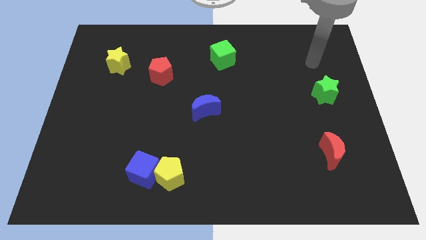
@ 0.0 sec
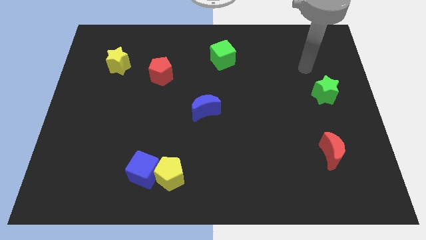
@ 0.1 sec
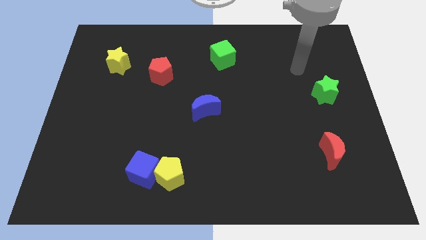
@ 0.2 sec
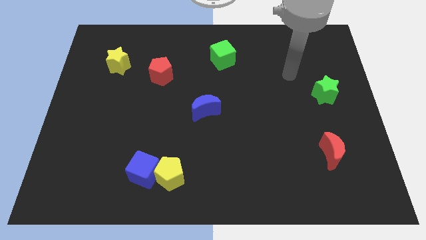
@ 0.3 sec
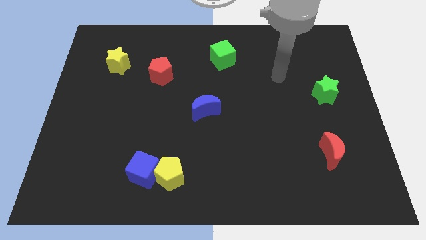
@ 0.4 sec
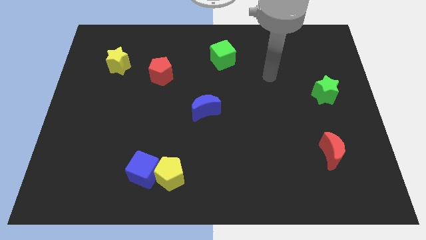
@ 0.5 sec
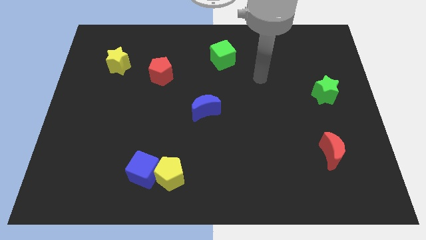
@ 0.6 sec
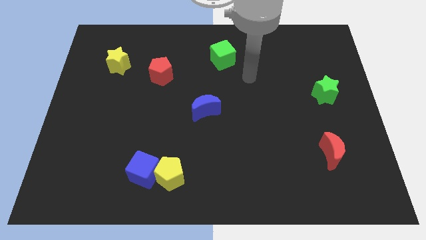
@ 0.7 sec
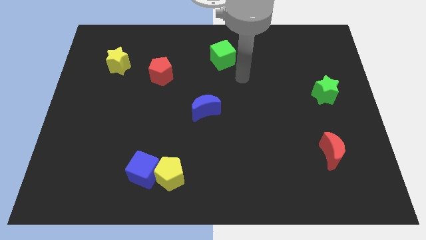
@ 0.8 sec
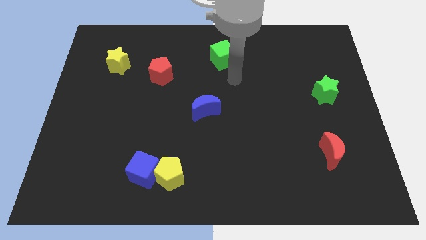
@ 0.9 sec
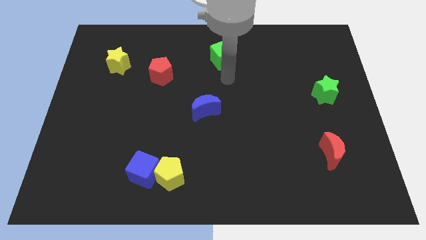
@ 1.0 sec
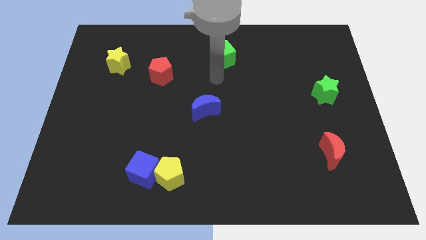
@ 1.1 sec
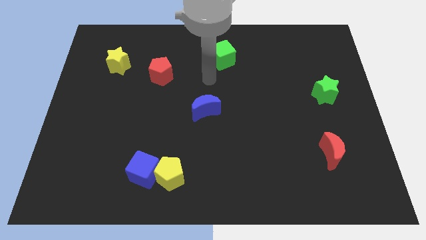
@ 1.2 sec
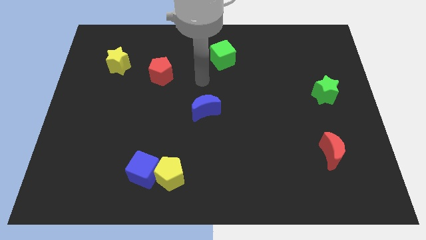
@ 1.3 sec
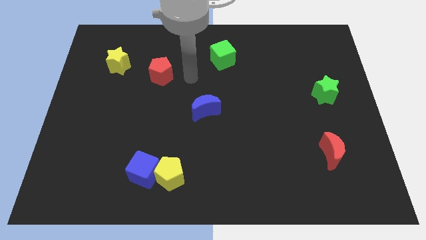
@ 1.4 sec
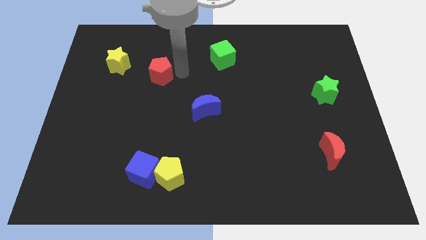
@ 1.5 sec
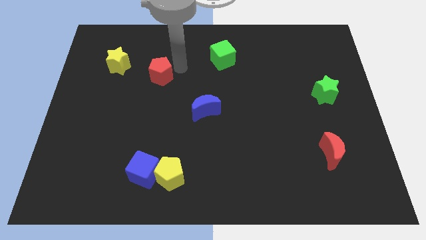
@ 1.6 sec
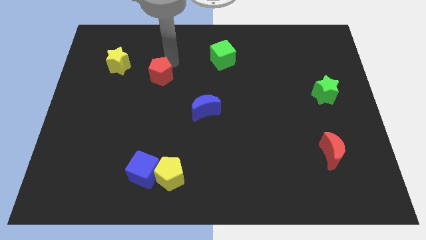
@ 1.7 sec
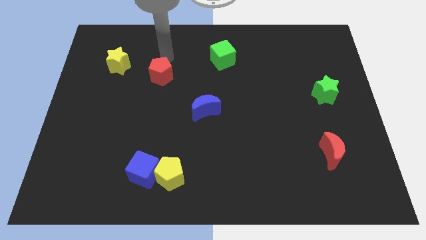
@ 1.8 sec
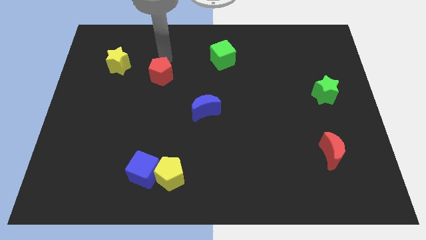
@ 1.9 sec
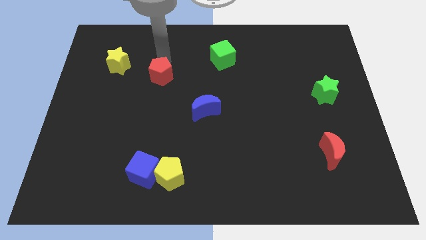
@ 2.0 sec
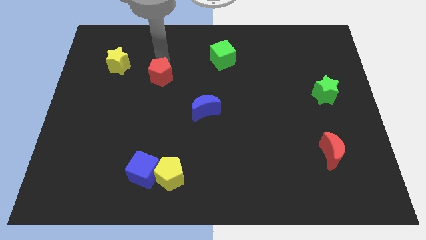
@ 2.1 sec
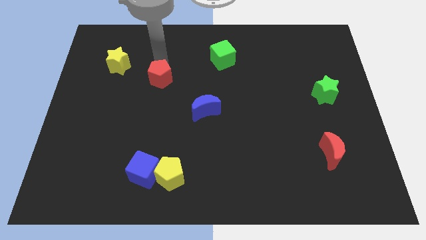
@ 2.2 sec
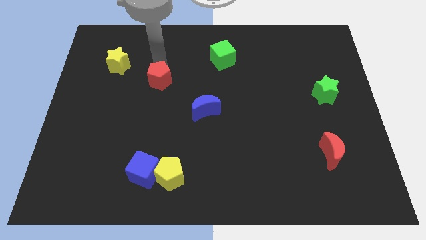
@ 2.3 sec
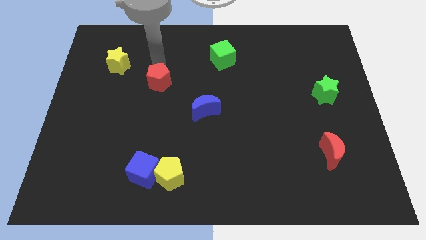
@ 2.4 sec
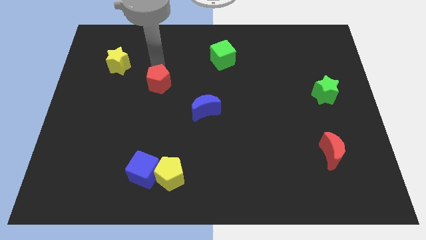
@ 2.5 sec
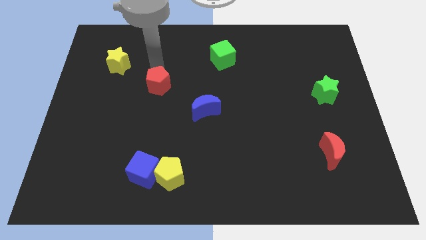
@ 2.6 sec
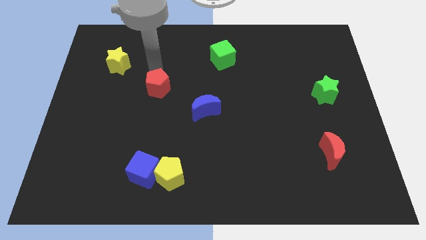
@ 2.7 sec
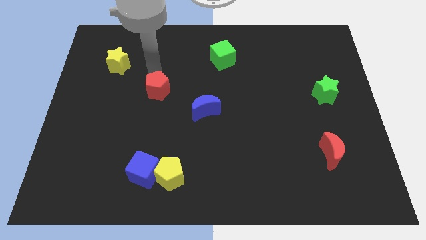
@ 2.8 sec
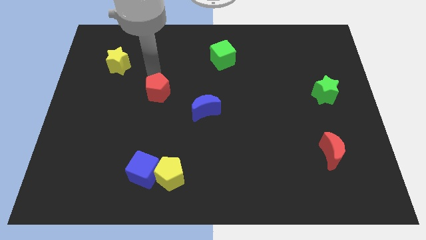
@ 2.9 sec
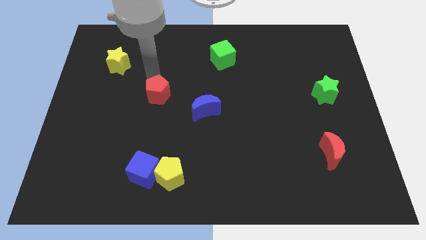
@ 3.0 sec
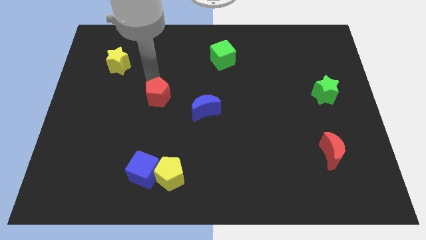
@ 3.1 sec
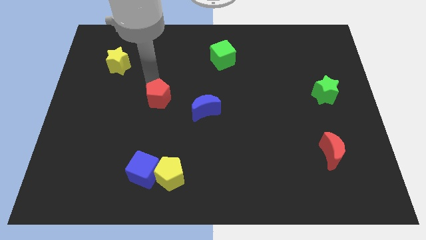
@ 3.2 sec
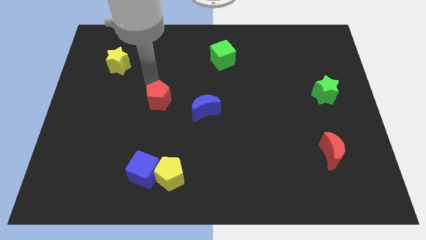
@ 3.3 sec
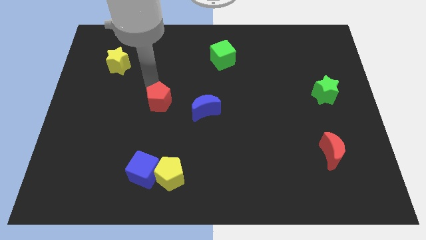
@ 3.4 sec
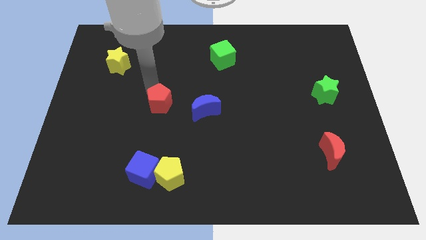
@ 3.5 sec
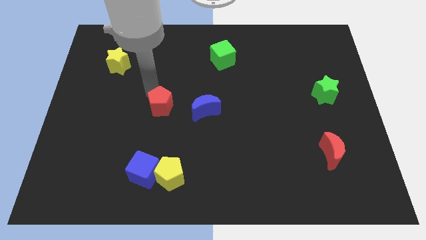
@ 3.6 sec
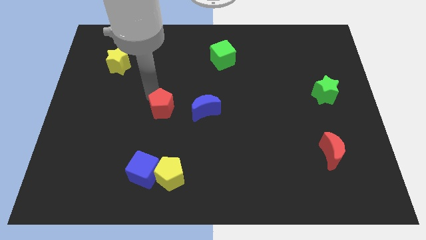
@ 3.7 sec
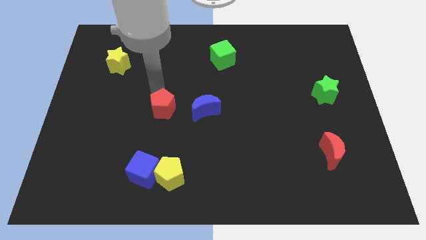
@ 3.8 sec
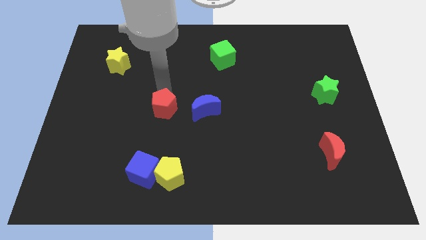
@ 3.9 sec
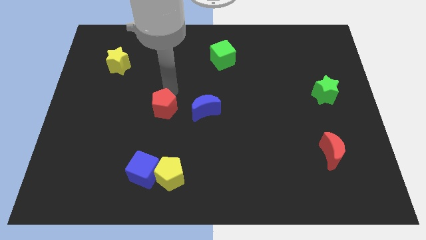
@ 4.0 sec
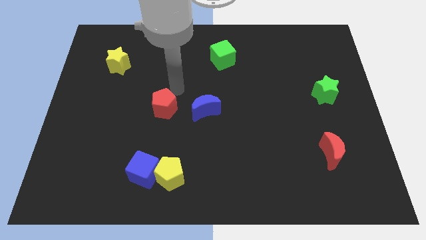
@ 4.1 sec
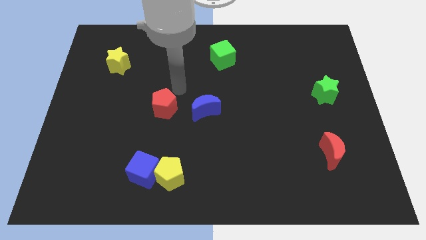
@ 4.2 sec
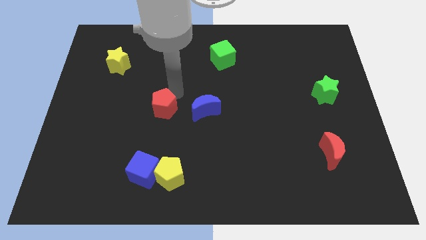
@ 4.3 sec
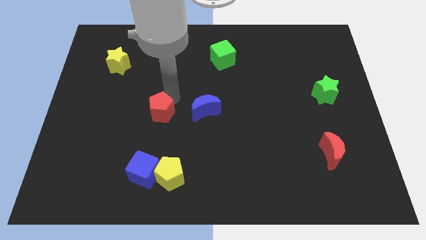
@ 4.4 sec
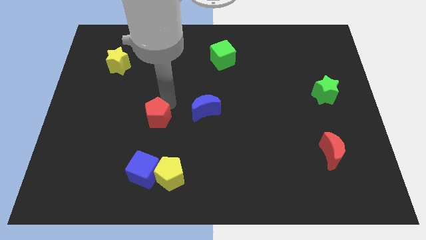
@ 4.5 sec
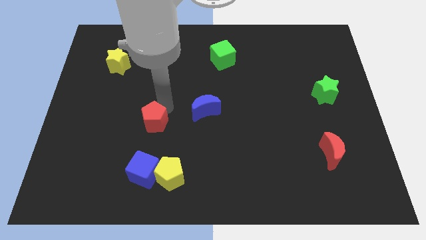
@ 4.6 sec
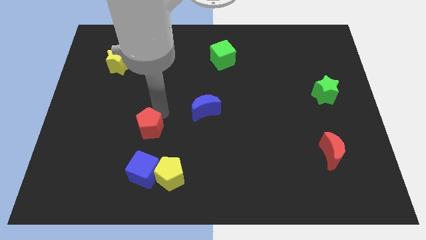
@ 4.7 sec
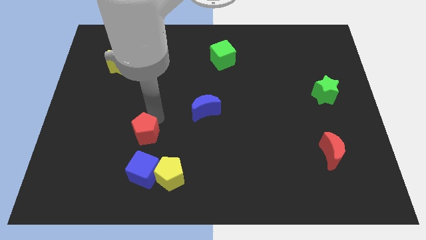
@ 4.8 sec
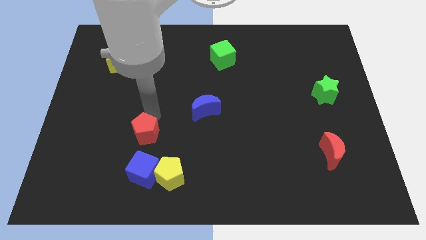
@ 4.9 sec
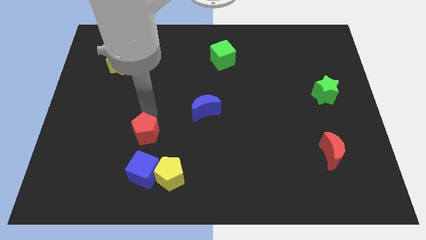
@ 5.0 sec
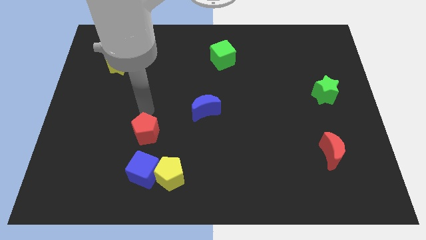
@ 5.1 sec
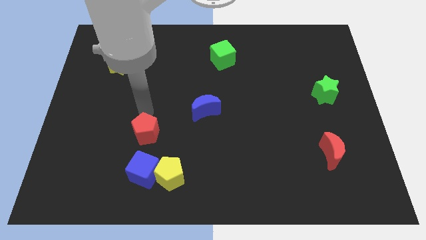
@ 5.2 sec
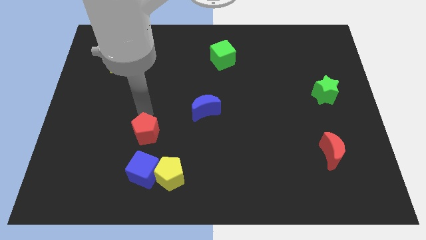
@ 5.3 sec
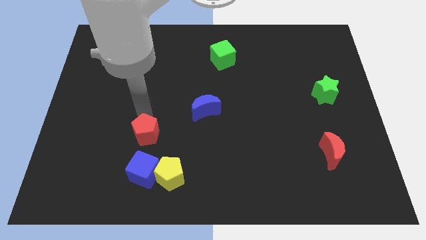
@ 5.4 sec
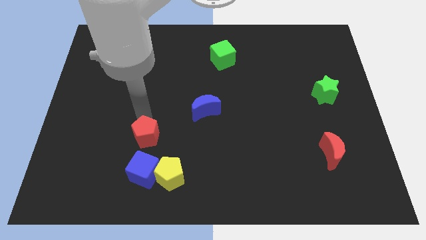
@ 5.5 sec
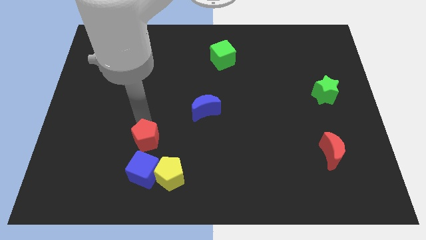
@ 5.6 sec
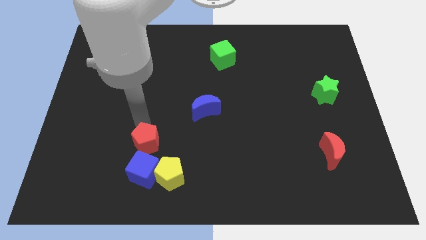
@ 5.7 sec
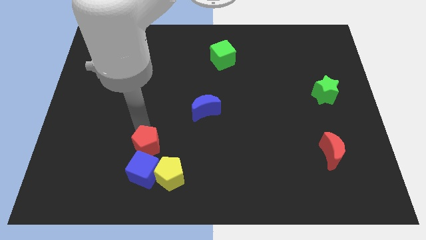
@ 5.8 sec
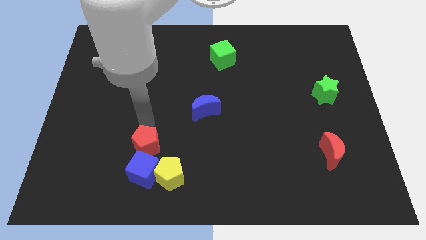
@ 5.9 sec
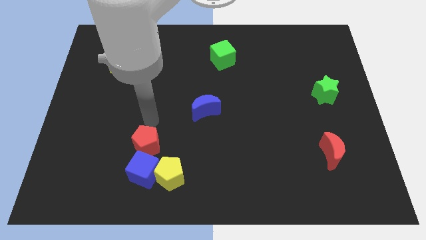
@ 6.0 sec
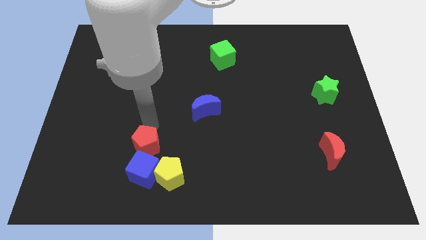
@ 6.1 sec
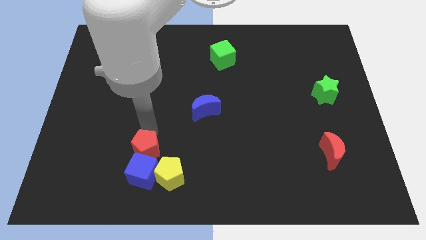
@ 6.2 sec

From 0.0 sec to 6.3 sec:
slide the red pentagon towards the blue cube

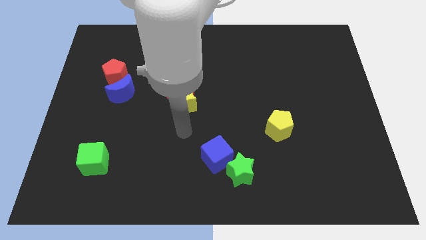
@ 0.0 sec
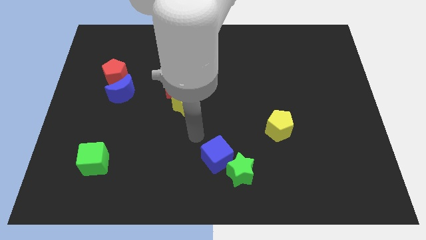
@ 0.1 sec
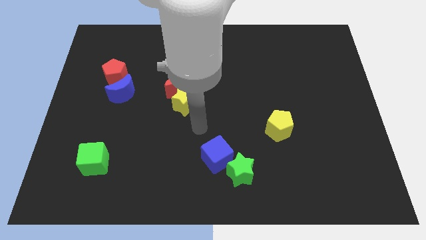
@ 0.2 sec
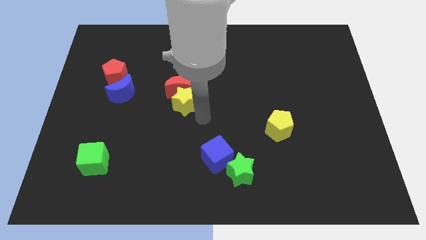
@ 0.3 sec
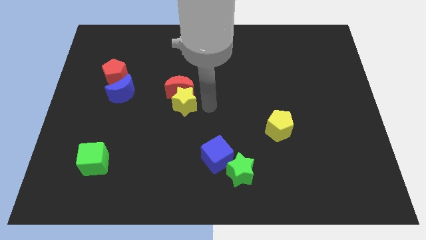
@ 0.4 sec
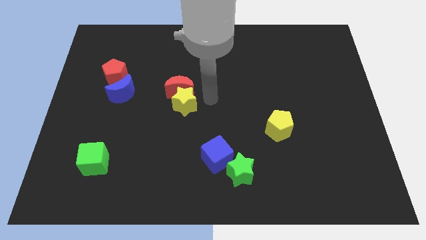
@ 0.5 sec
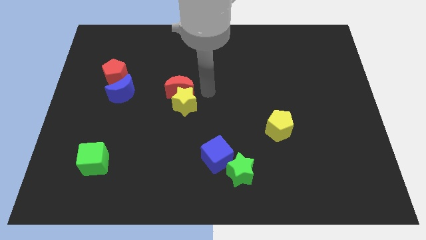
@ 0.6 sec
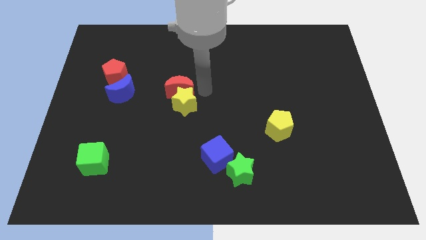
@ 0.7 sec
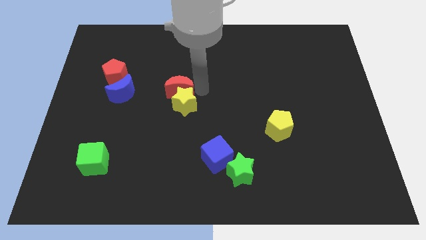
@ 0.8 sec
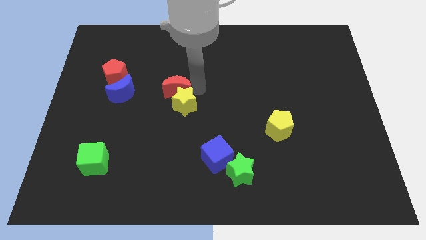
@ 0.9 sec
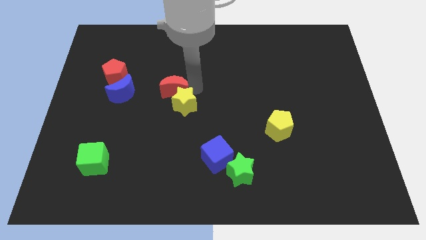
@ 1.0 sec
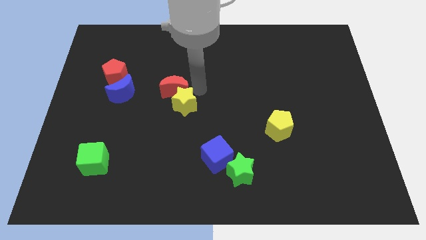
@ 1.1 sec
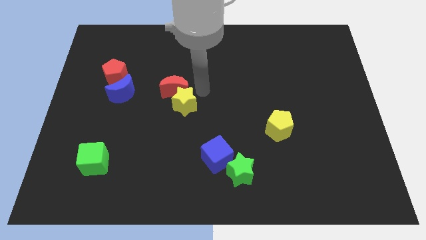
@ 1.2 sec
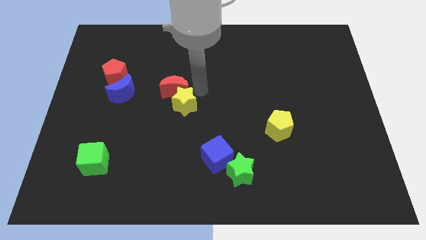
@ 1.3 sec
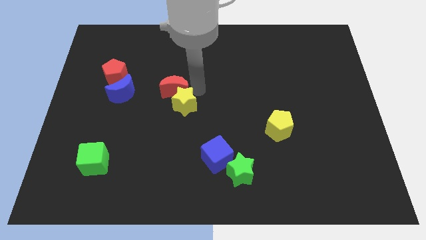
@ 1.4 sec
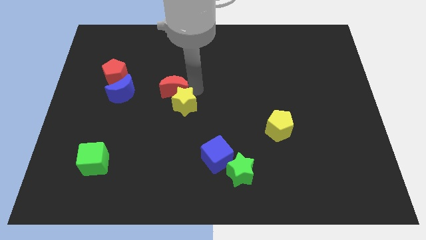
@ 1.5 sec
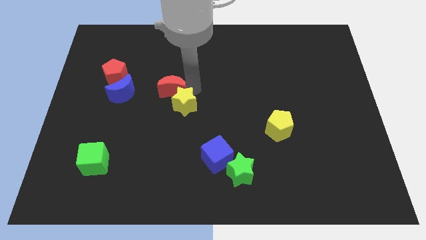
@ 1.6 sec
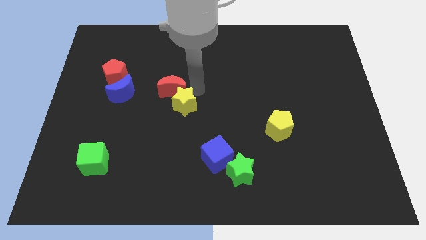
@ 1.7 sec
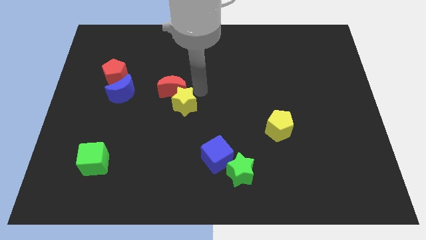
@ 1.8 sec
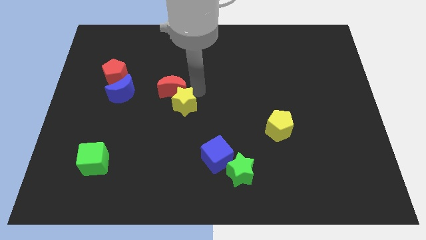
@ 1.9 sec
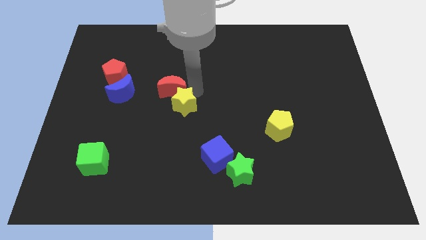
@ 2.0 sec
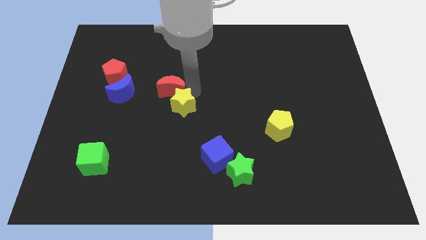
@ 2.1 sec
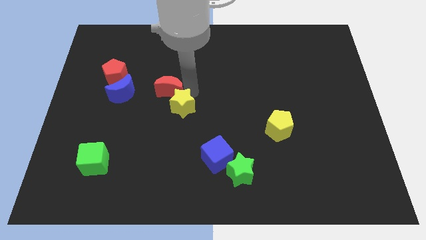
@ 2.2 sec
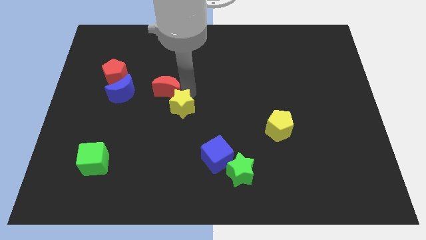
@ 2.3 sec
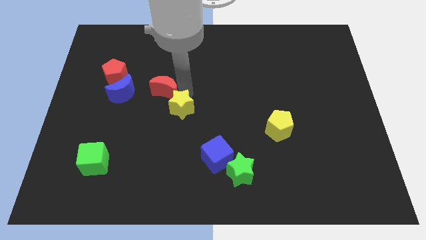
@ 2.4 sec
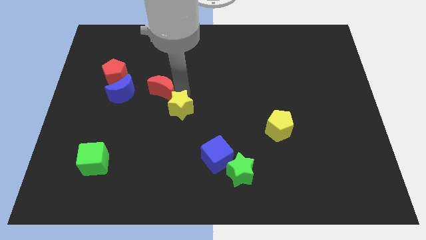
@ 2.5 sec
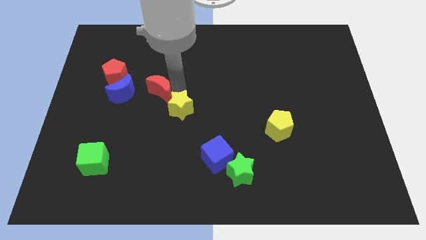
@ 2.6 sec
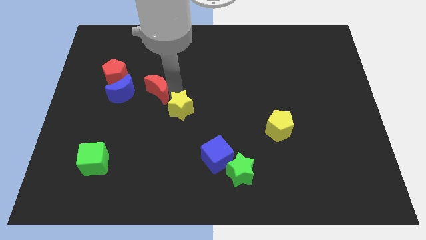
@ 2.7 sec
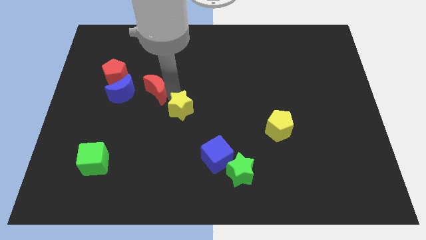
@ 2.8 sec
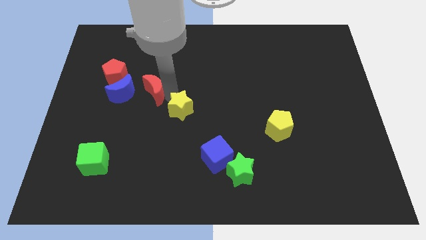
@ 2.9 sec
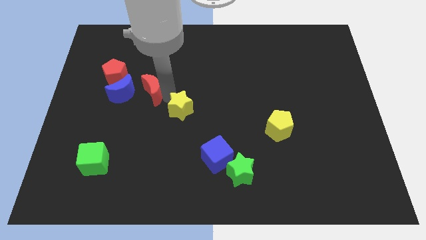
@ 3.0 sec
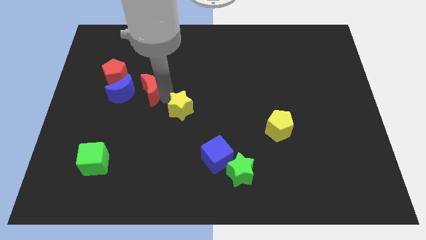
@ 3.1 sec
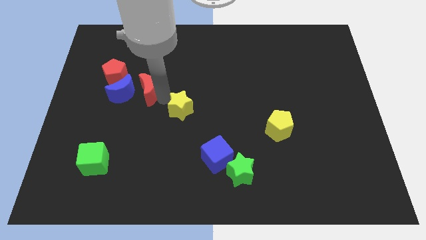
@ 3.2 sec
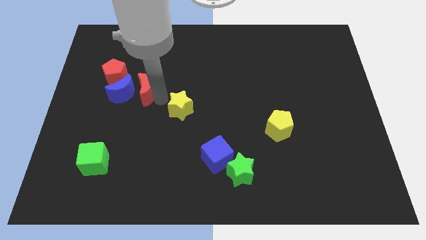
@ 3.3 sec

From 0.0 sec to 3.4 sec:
push the red moon towards the blue moon
